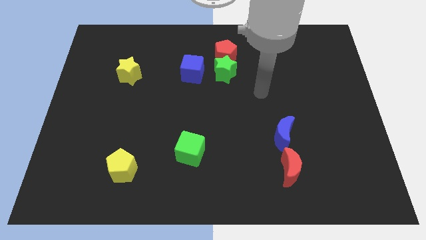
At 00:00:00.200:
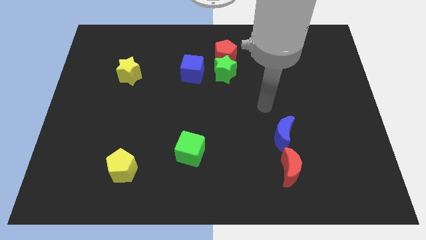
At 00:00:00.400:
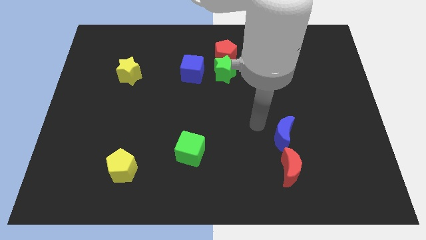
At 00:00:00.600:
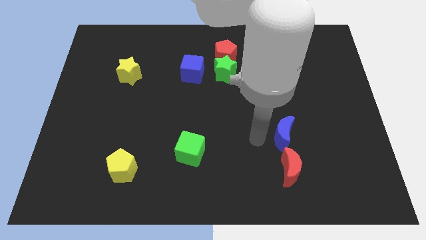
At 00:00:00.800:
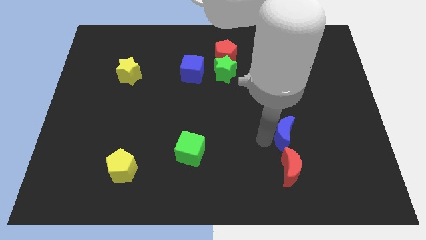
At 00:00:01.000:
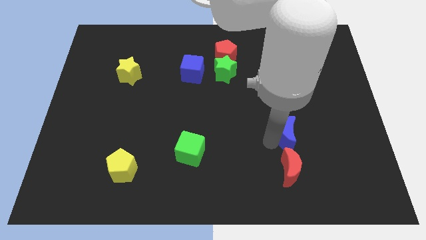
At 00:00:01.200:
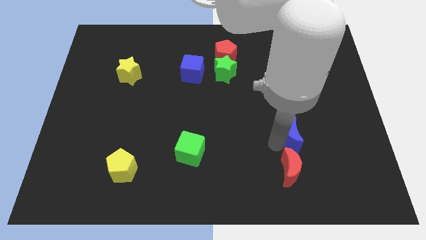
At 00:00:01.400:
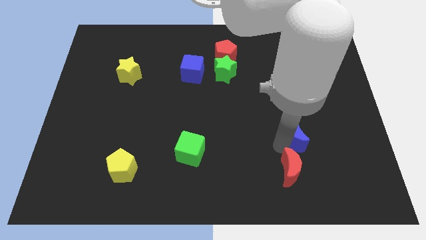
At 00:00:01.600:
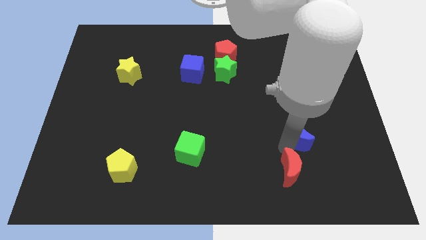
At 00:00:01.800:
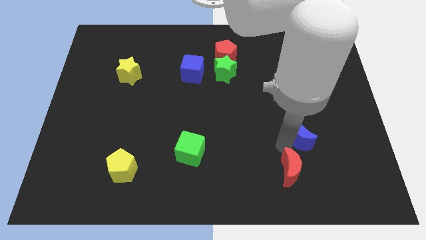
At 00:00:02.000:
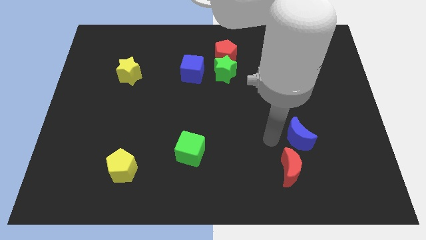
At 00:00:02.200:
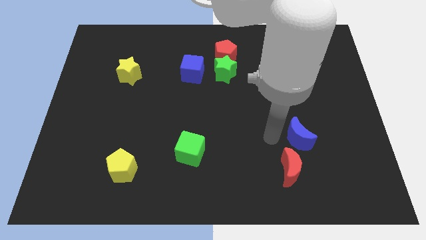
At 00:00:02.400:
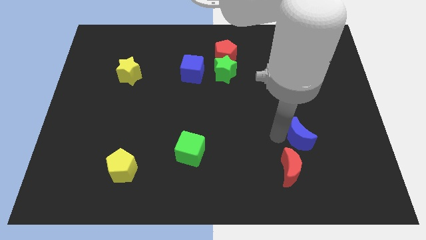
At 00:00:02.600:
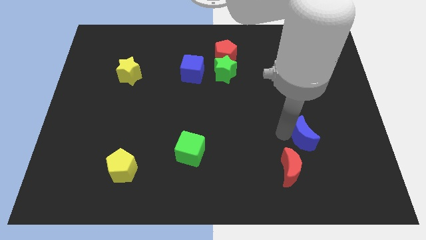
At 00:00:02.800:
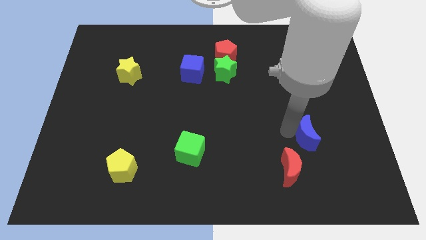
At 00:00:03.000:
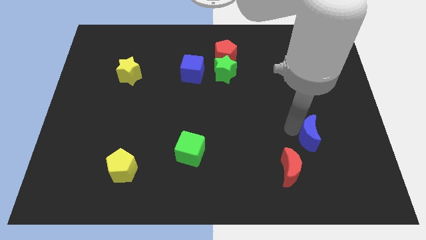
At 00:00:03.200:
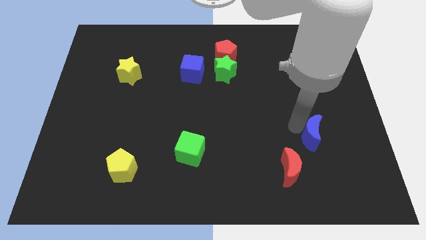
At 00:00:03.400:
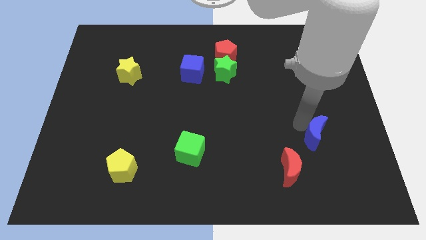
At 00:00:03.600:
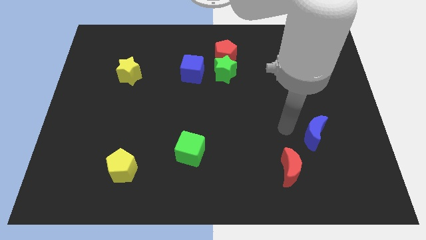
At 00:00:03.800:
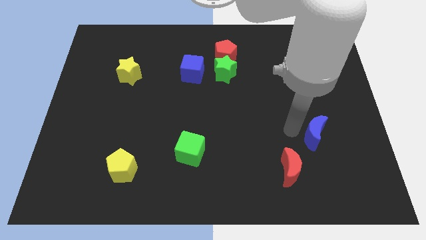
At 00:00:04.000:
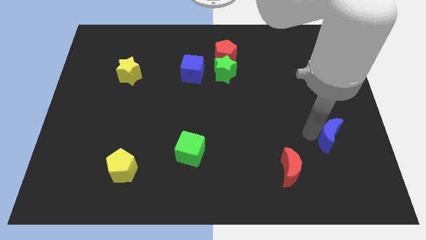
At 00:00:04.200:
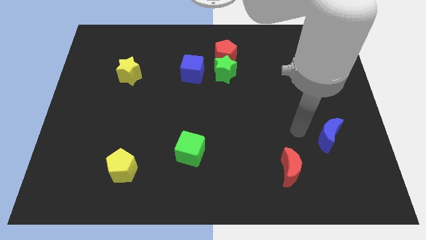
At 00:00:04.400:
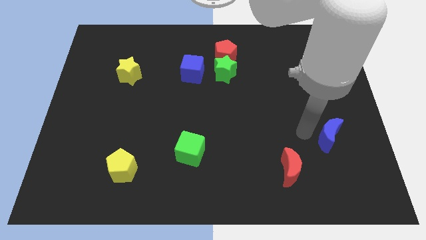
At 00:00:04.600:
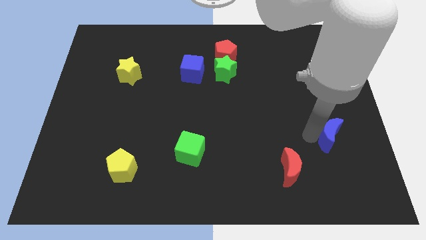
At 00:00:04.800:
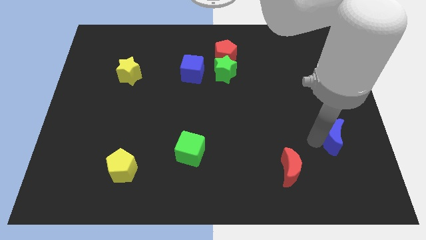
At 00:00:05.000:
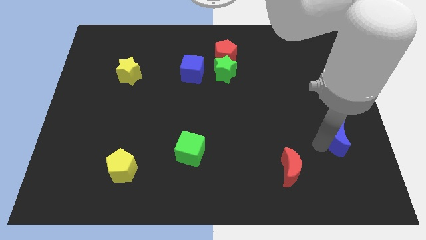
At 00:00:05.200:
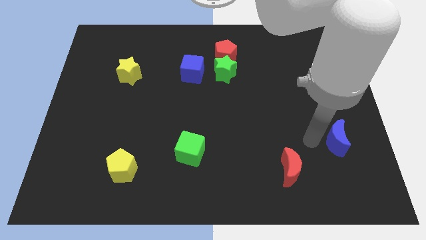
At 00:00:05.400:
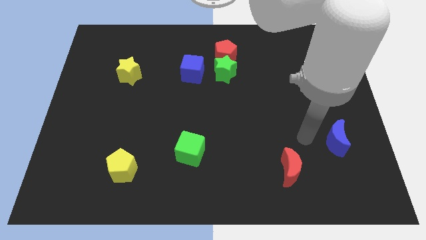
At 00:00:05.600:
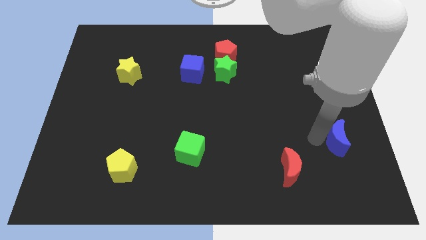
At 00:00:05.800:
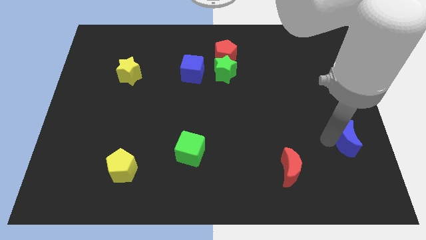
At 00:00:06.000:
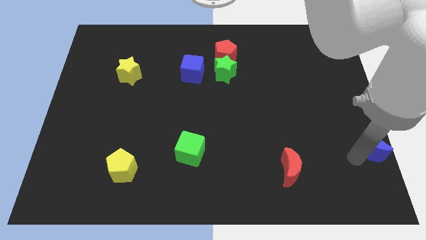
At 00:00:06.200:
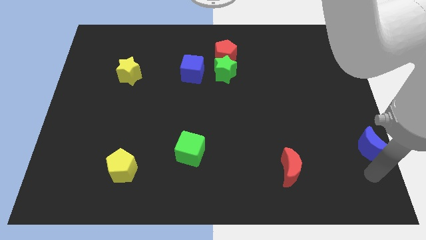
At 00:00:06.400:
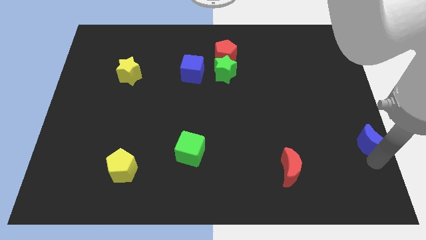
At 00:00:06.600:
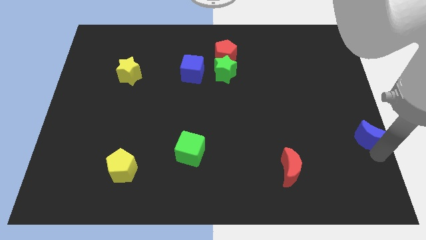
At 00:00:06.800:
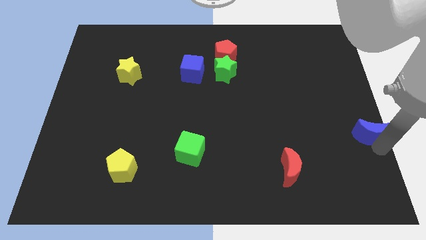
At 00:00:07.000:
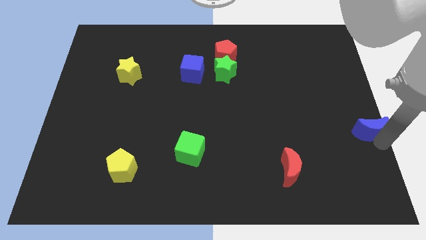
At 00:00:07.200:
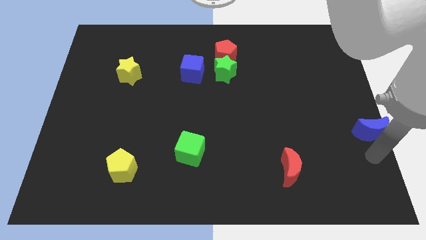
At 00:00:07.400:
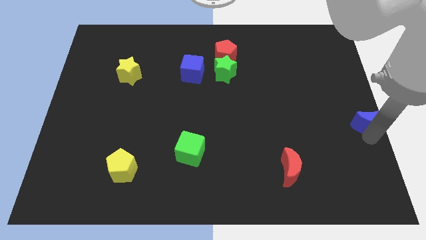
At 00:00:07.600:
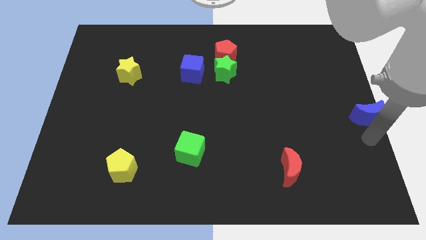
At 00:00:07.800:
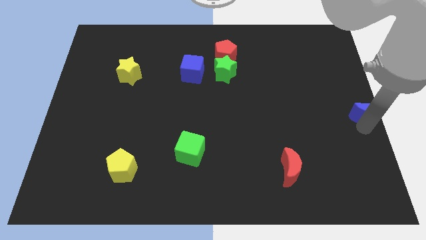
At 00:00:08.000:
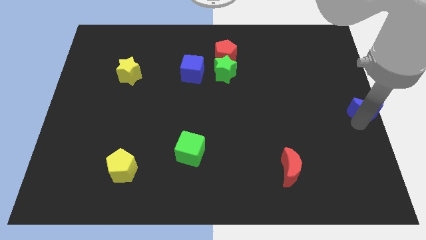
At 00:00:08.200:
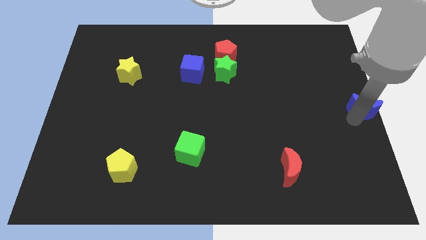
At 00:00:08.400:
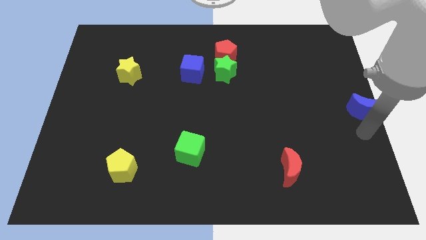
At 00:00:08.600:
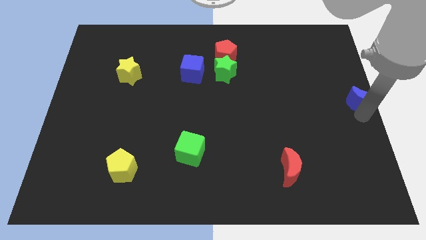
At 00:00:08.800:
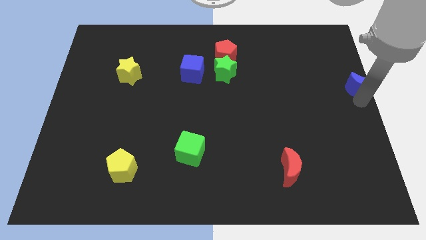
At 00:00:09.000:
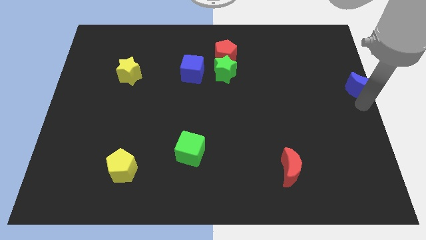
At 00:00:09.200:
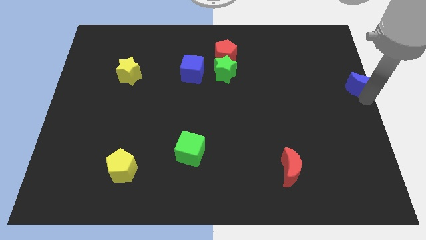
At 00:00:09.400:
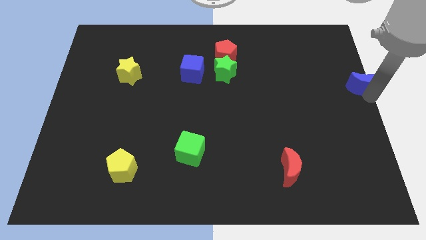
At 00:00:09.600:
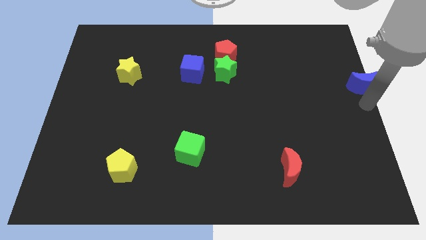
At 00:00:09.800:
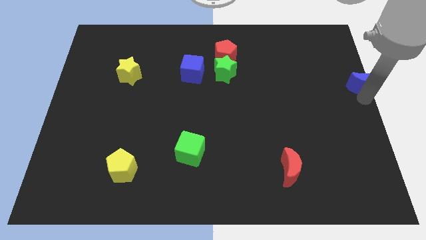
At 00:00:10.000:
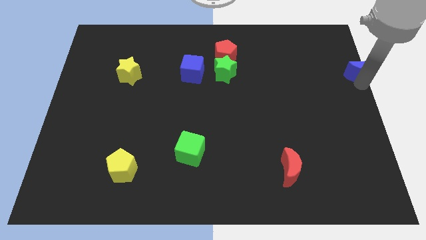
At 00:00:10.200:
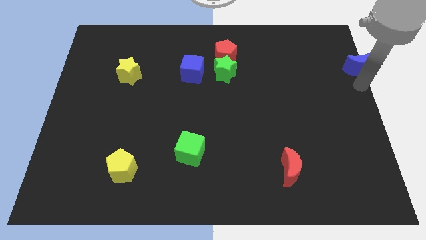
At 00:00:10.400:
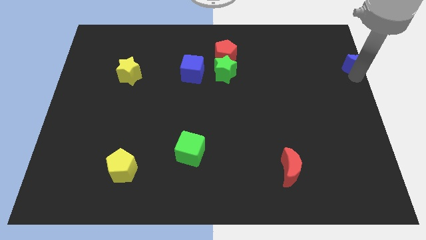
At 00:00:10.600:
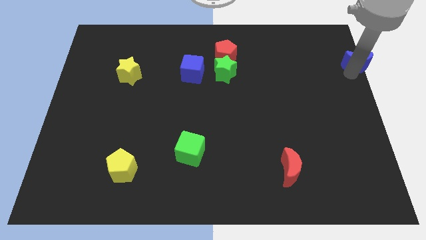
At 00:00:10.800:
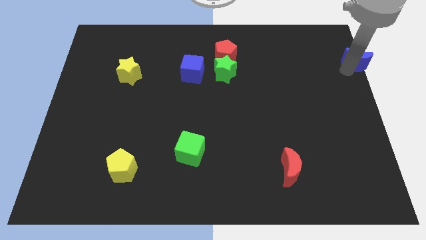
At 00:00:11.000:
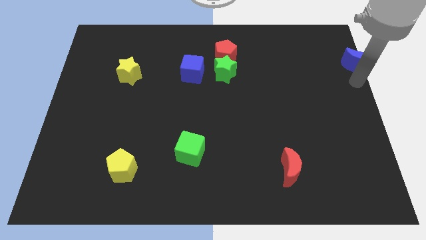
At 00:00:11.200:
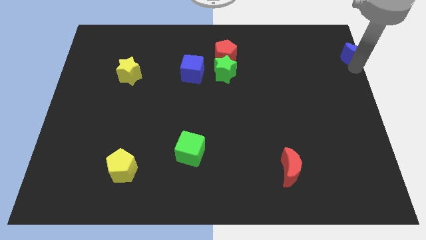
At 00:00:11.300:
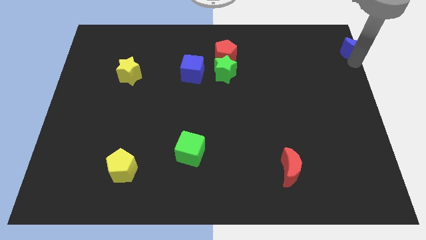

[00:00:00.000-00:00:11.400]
slide the blue moon to the top right of the board
